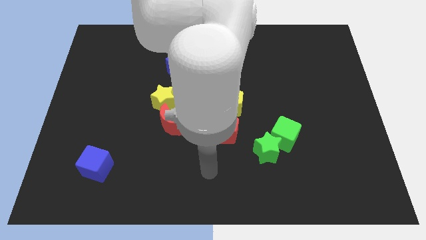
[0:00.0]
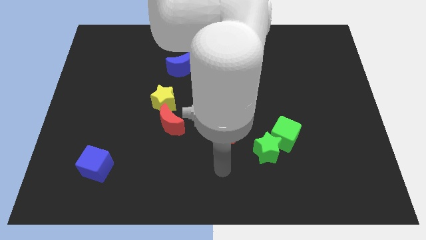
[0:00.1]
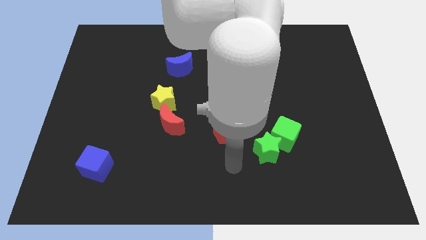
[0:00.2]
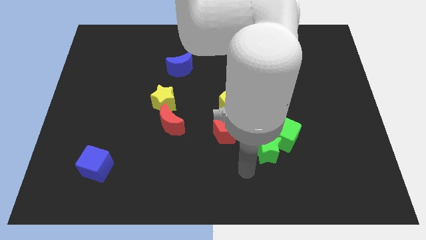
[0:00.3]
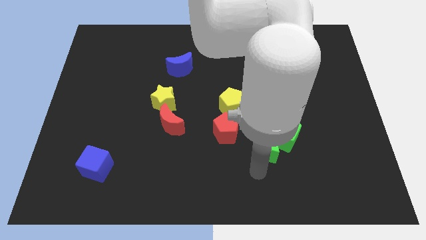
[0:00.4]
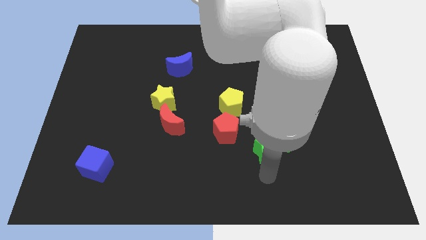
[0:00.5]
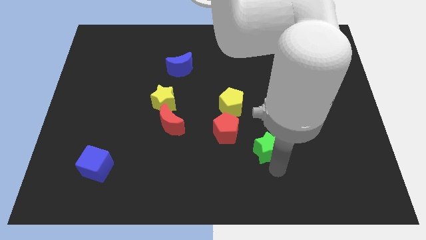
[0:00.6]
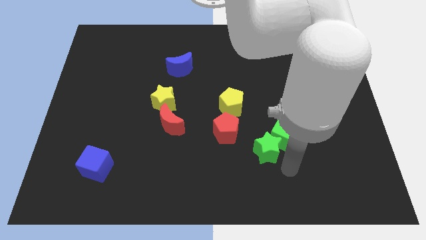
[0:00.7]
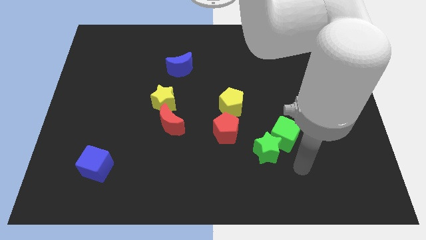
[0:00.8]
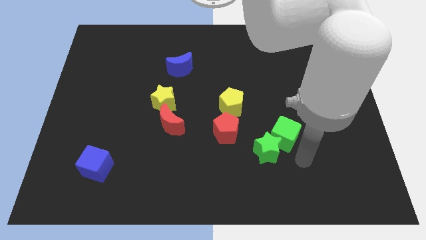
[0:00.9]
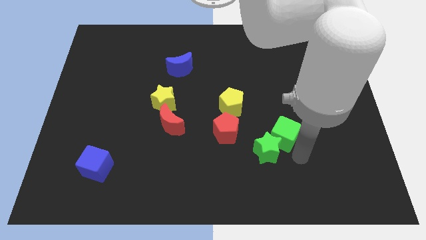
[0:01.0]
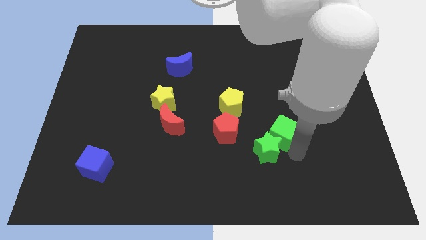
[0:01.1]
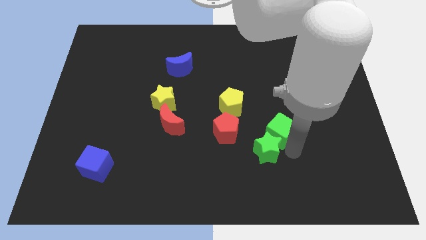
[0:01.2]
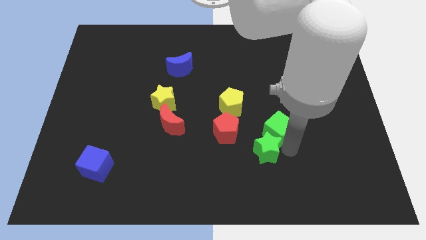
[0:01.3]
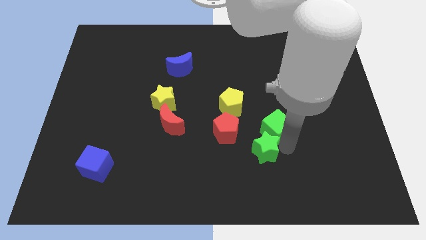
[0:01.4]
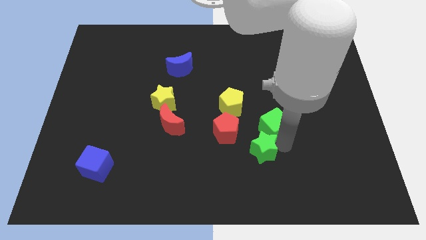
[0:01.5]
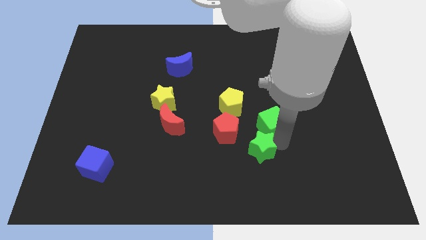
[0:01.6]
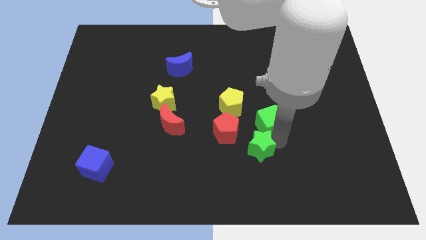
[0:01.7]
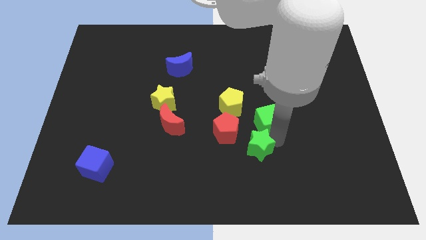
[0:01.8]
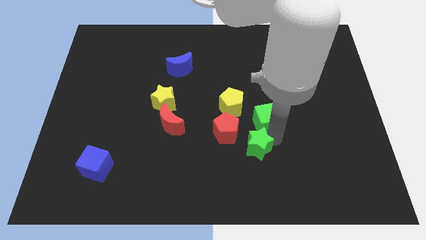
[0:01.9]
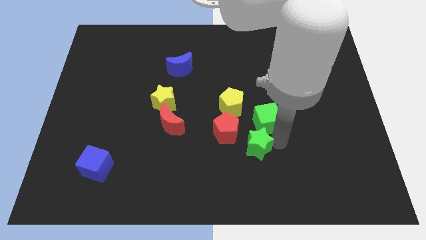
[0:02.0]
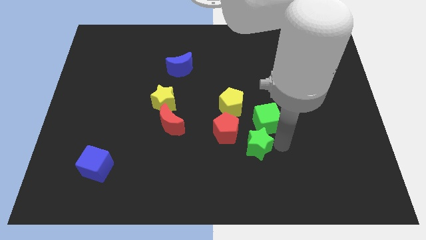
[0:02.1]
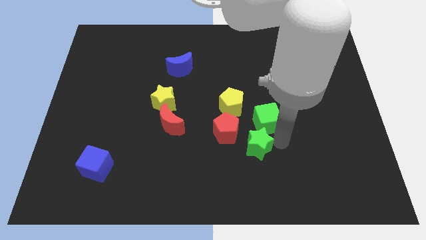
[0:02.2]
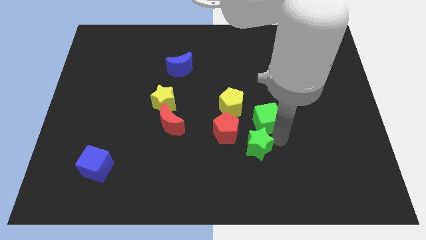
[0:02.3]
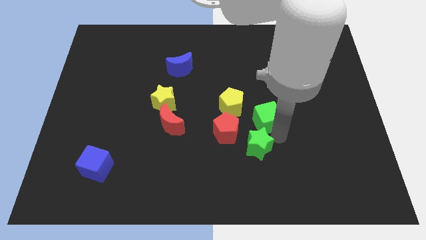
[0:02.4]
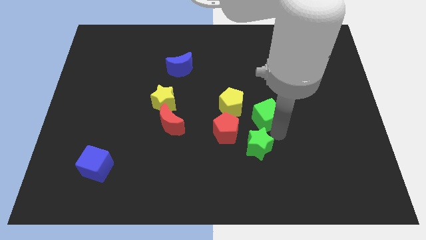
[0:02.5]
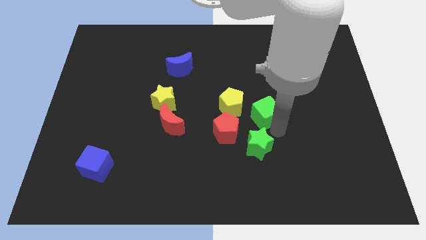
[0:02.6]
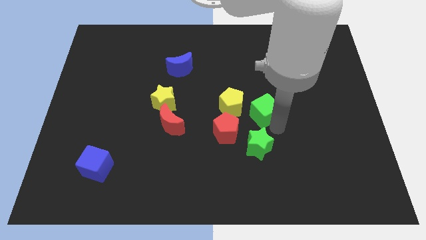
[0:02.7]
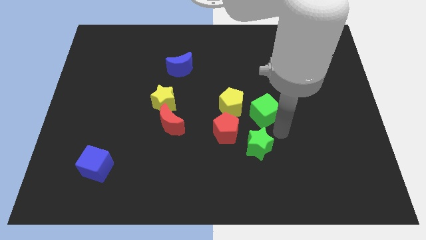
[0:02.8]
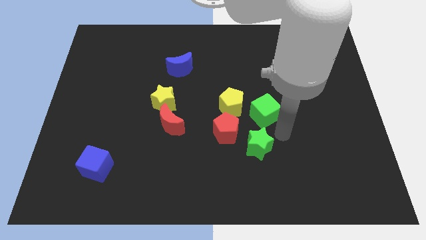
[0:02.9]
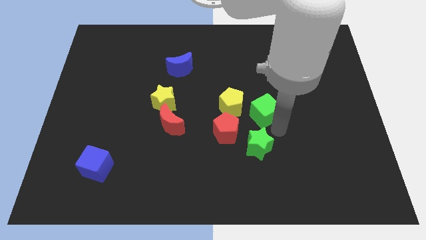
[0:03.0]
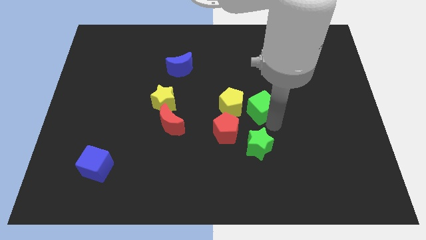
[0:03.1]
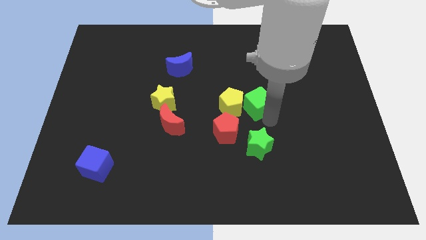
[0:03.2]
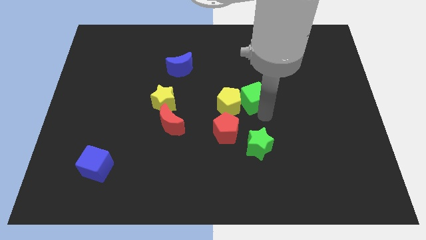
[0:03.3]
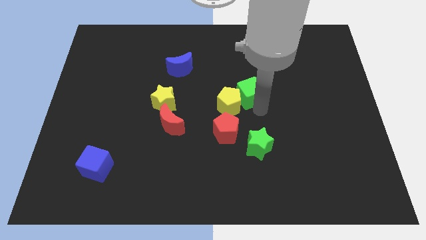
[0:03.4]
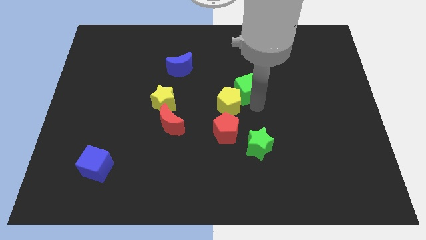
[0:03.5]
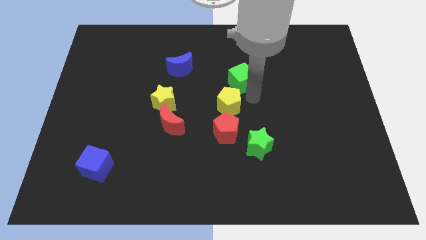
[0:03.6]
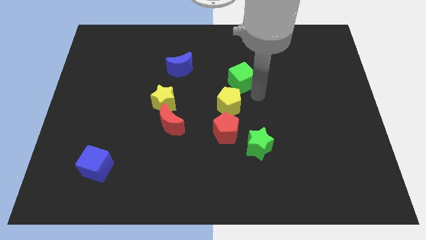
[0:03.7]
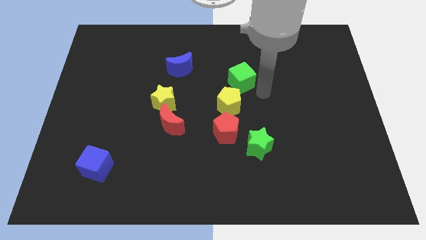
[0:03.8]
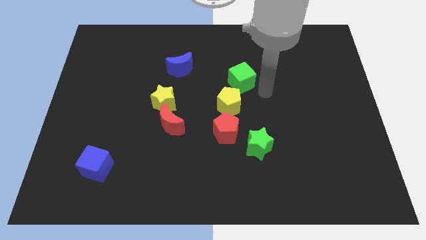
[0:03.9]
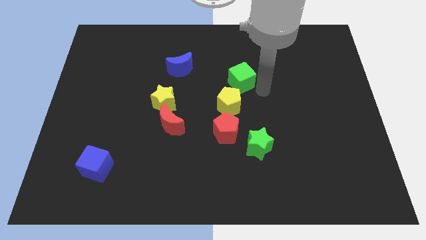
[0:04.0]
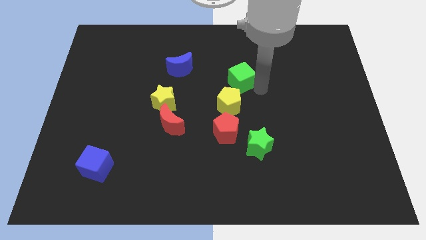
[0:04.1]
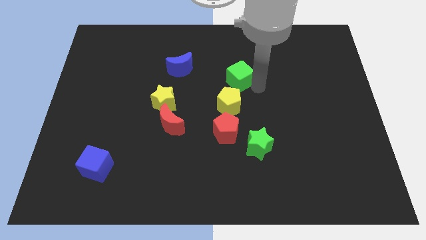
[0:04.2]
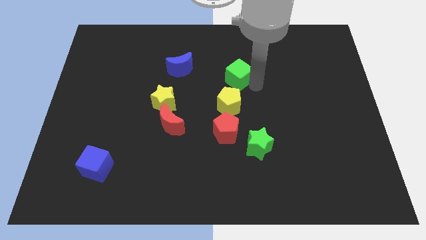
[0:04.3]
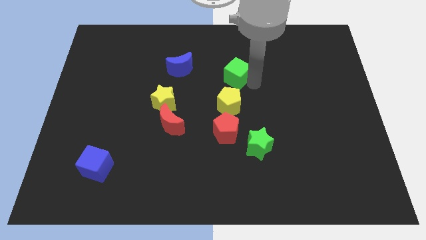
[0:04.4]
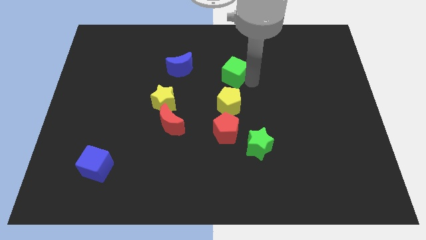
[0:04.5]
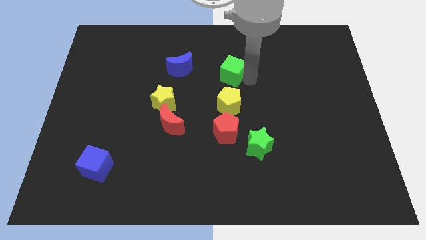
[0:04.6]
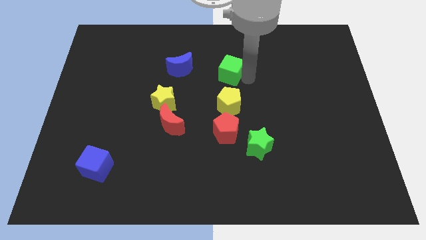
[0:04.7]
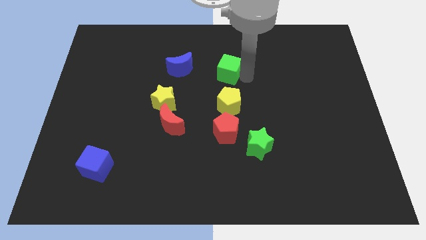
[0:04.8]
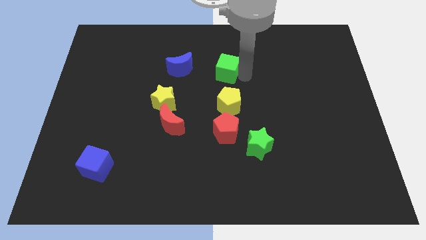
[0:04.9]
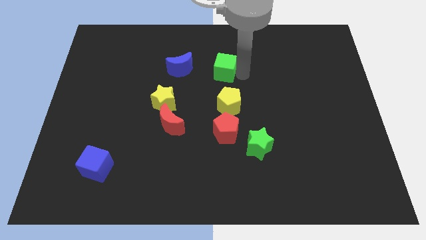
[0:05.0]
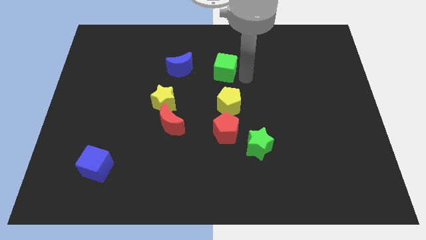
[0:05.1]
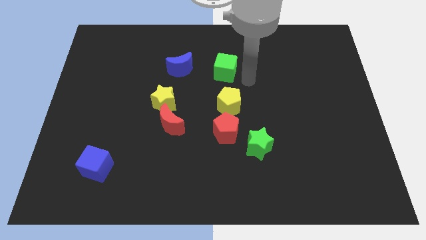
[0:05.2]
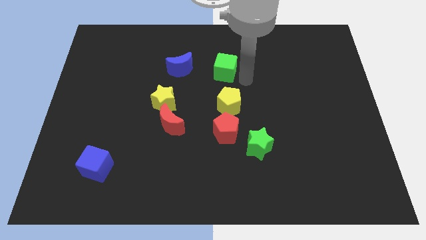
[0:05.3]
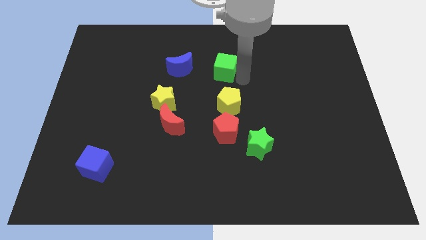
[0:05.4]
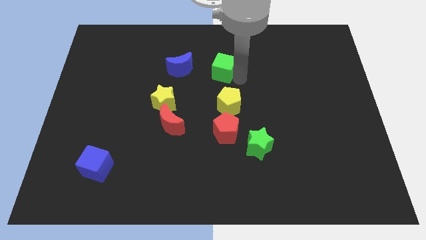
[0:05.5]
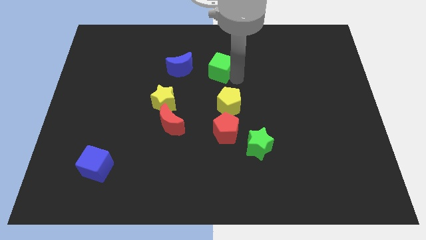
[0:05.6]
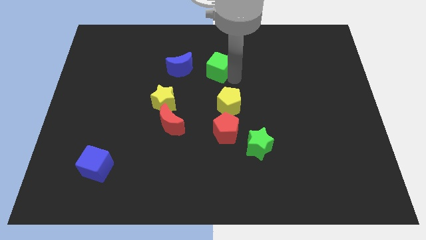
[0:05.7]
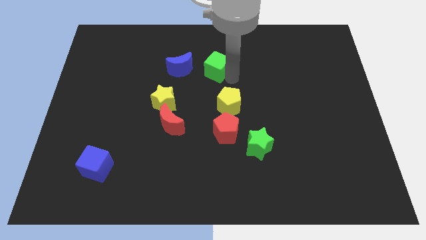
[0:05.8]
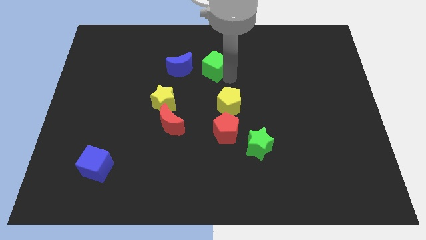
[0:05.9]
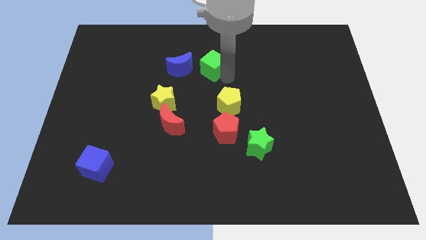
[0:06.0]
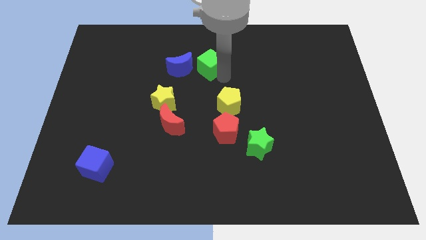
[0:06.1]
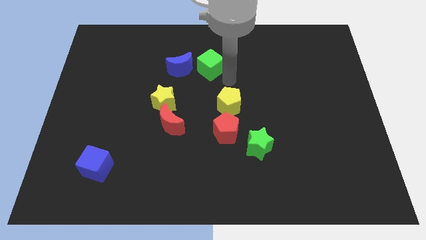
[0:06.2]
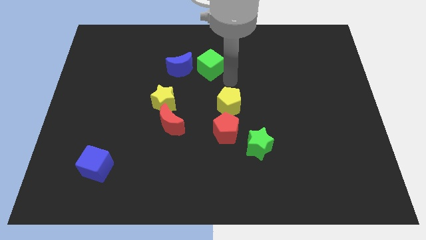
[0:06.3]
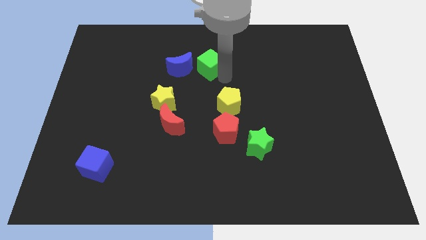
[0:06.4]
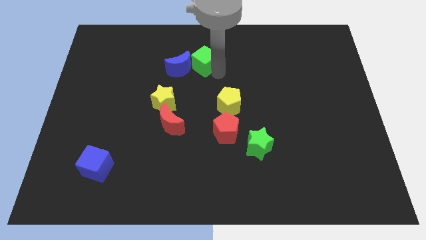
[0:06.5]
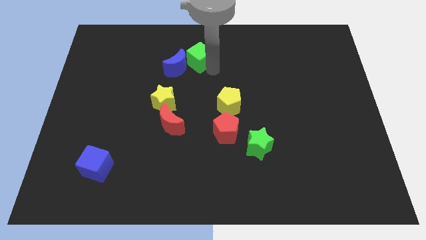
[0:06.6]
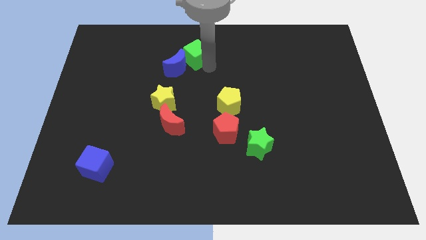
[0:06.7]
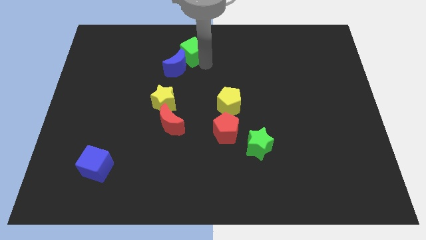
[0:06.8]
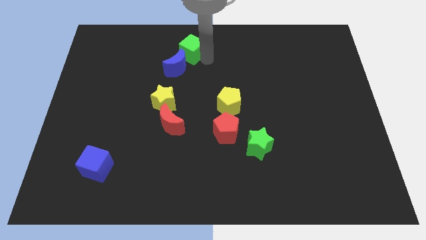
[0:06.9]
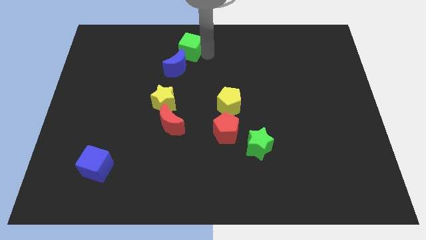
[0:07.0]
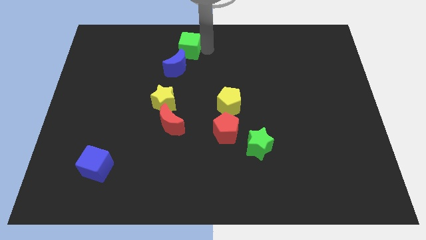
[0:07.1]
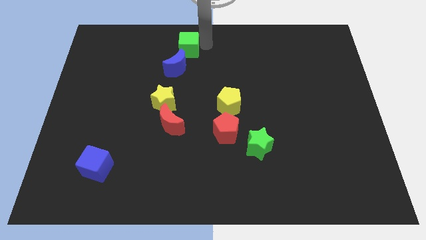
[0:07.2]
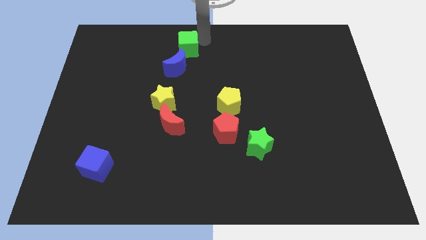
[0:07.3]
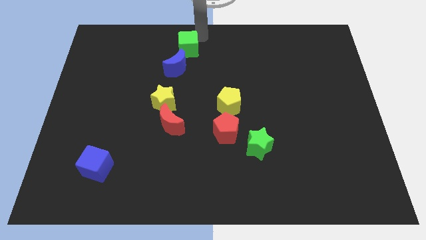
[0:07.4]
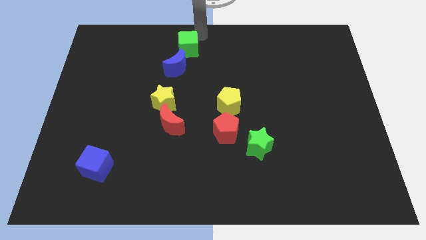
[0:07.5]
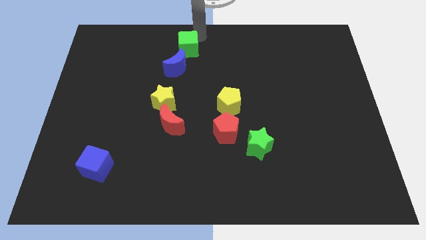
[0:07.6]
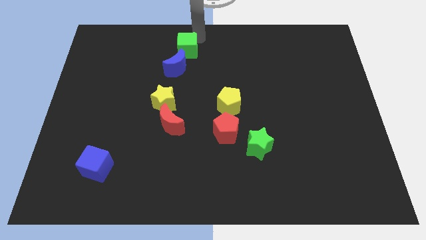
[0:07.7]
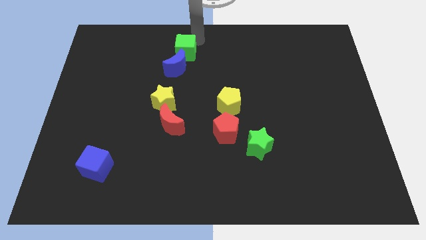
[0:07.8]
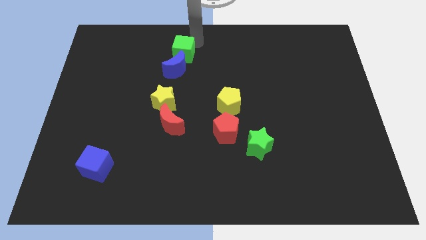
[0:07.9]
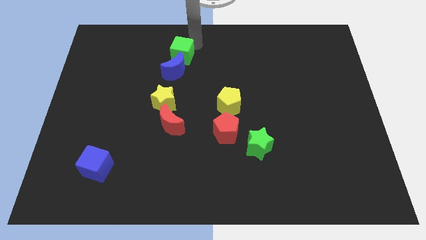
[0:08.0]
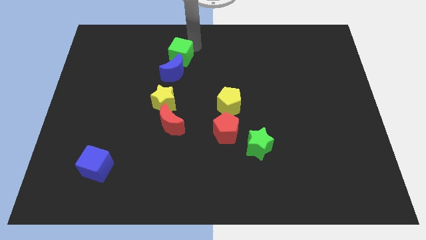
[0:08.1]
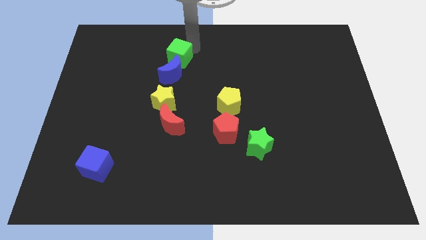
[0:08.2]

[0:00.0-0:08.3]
put the green cube above the yellow star
